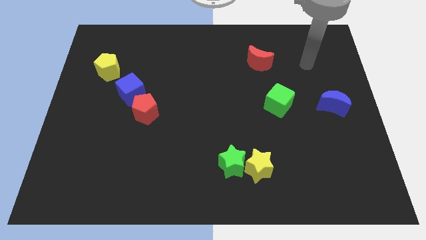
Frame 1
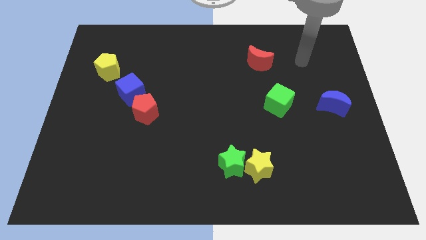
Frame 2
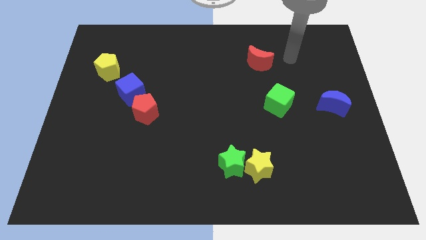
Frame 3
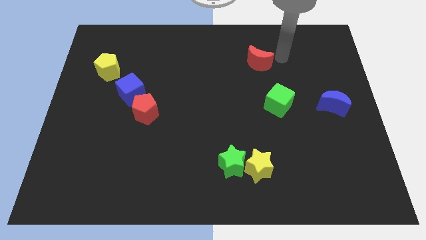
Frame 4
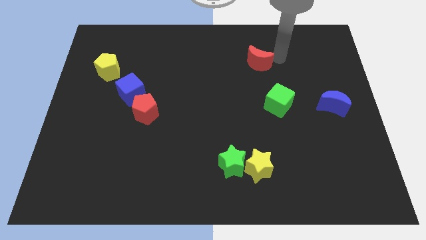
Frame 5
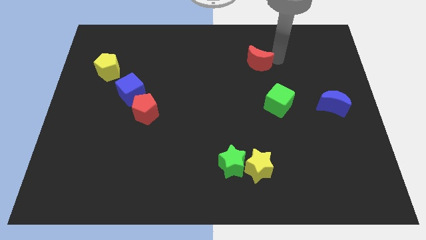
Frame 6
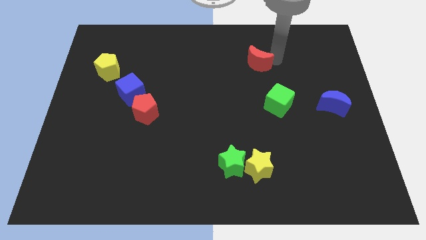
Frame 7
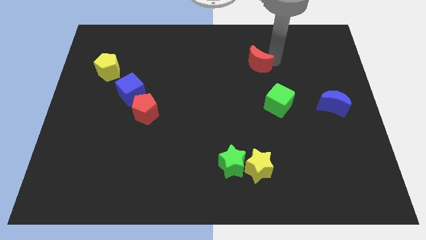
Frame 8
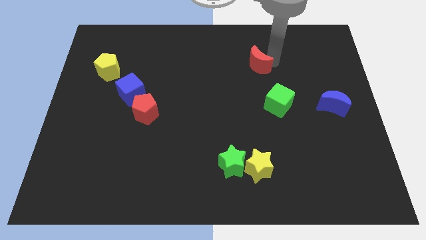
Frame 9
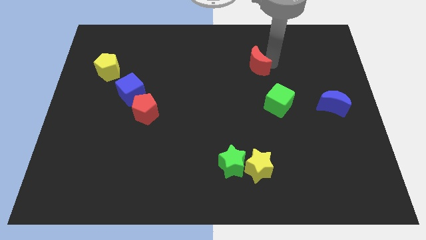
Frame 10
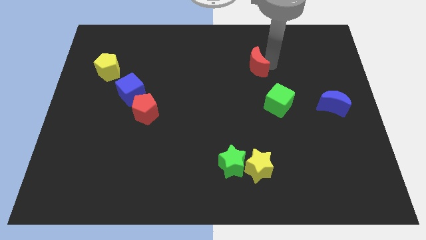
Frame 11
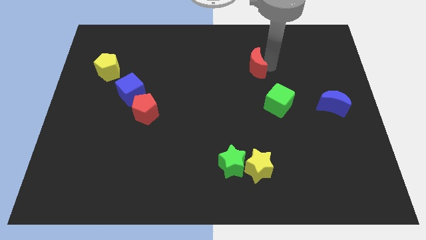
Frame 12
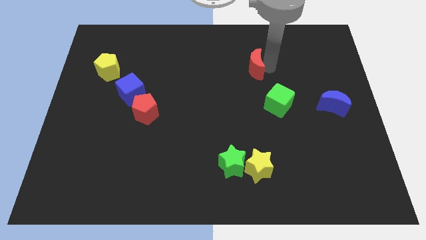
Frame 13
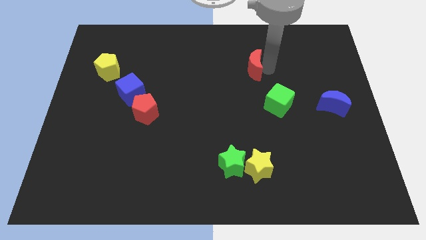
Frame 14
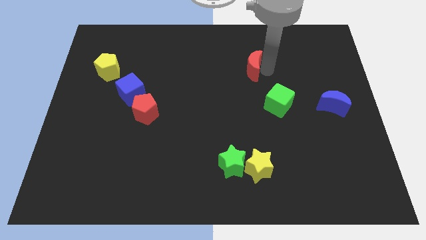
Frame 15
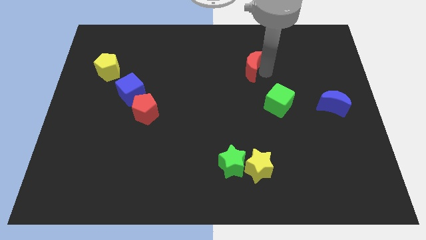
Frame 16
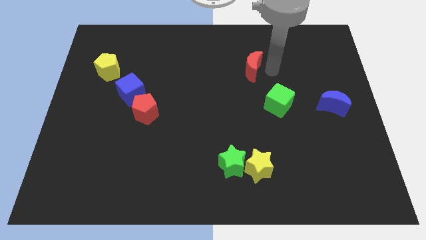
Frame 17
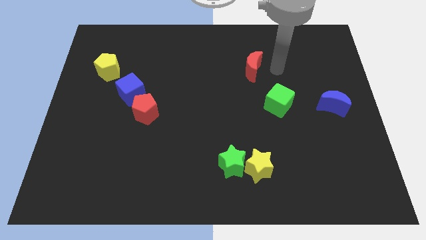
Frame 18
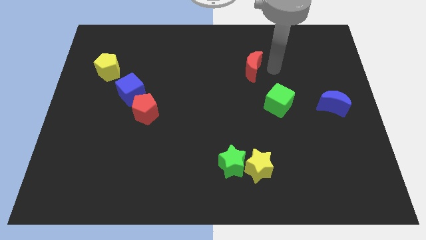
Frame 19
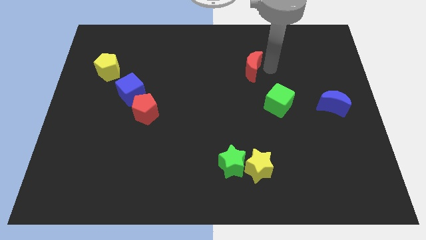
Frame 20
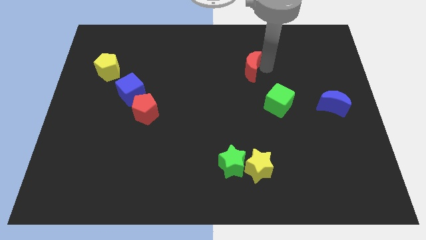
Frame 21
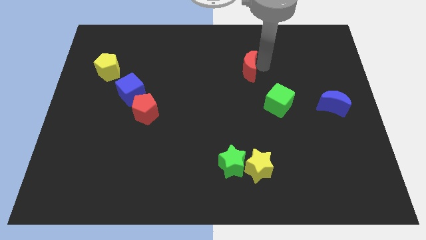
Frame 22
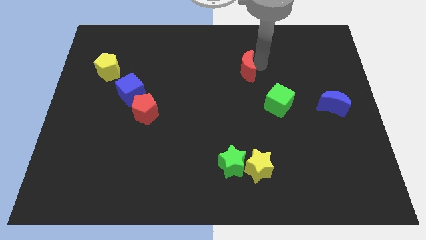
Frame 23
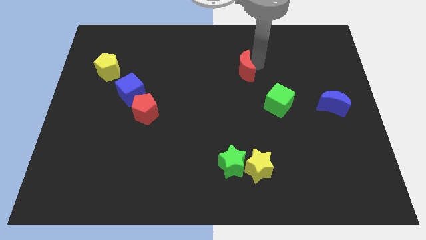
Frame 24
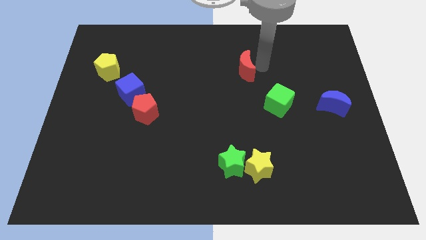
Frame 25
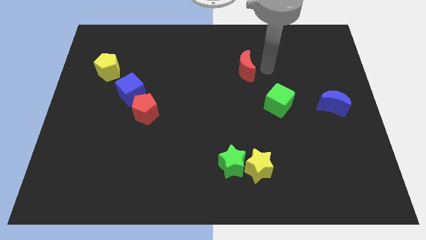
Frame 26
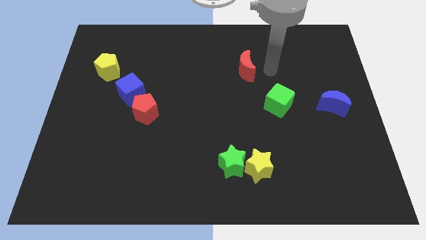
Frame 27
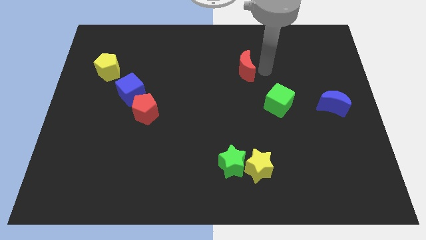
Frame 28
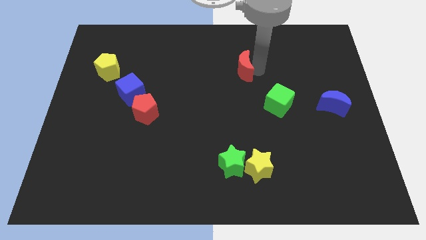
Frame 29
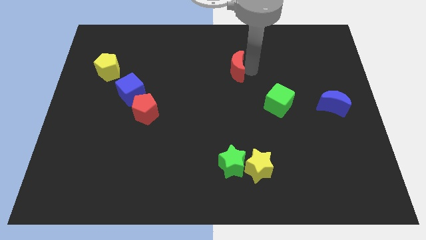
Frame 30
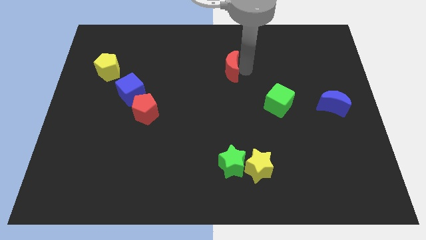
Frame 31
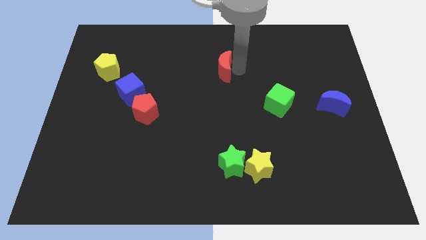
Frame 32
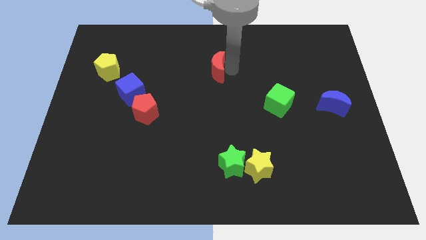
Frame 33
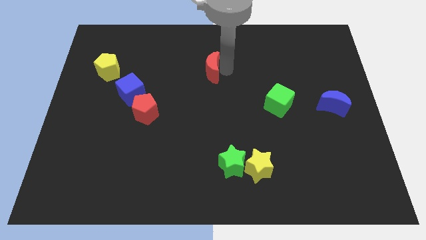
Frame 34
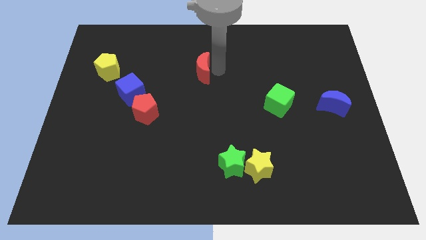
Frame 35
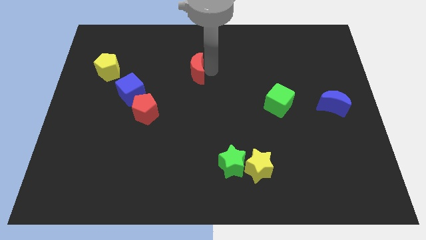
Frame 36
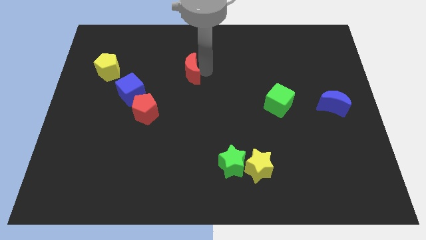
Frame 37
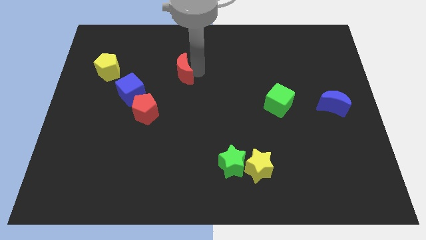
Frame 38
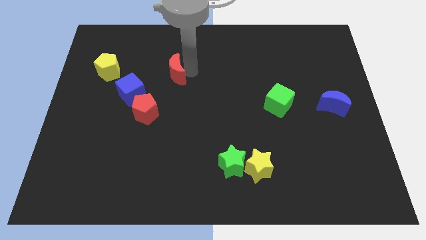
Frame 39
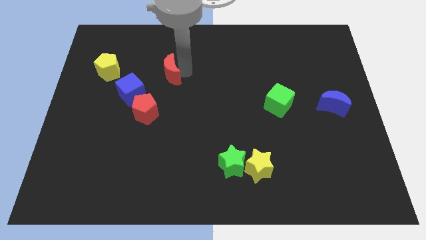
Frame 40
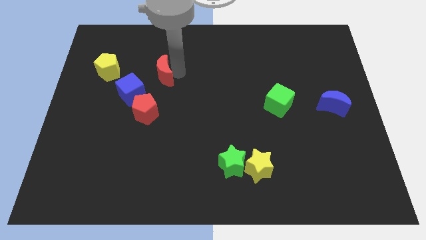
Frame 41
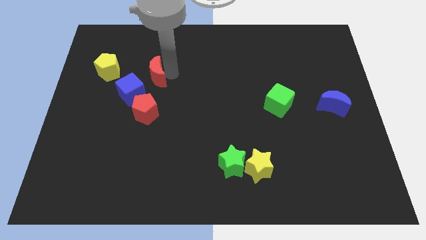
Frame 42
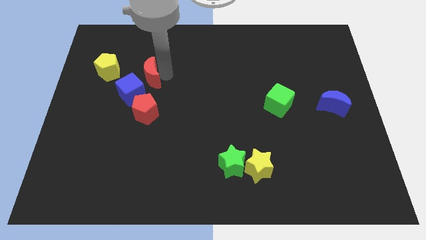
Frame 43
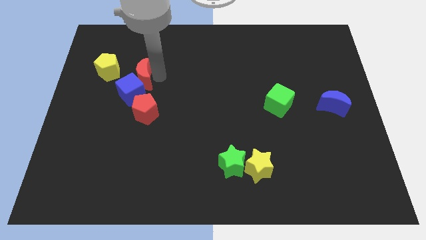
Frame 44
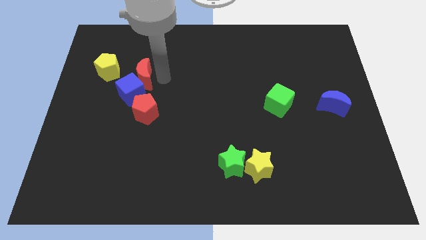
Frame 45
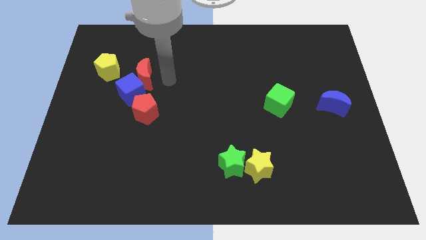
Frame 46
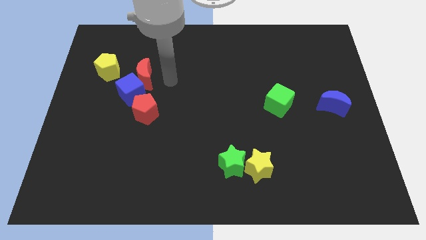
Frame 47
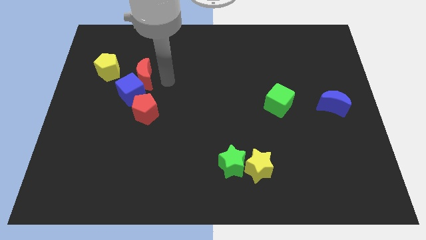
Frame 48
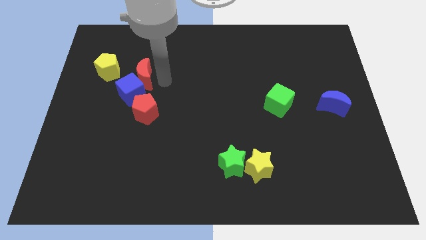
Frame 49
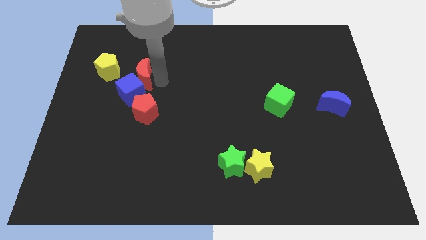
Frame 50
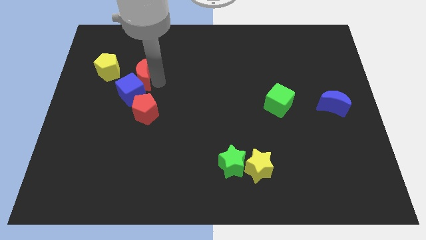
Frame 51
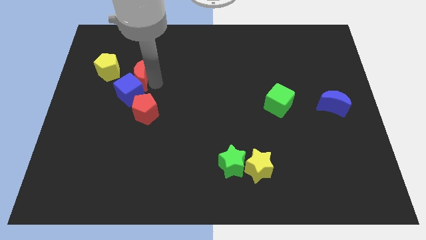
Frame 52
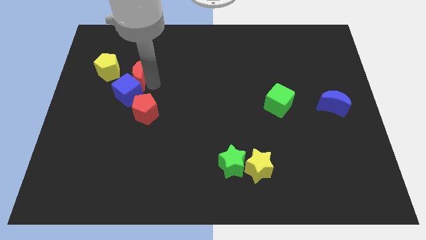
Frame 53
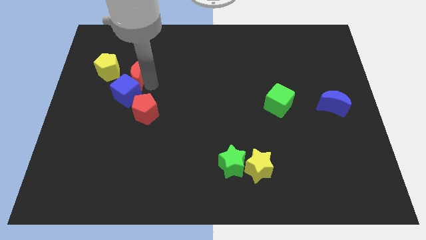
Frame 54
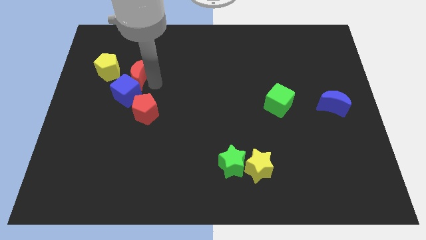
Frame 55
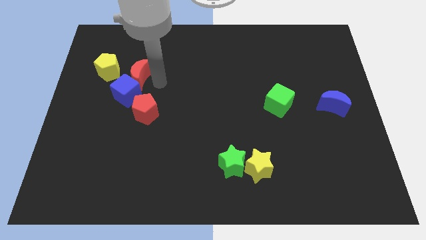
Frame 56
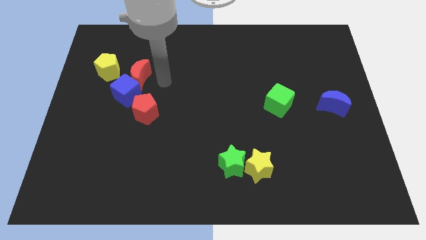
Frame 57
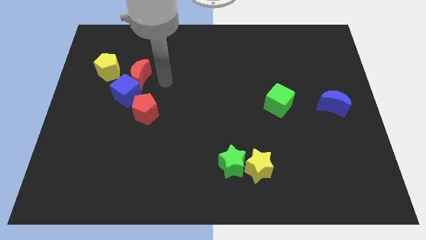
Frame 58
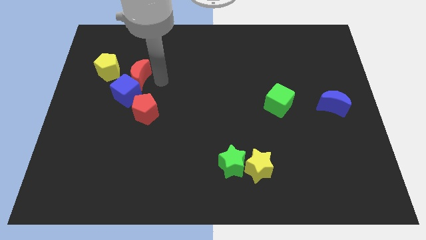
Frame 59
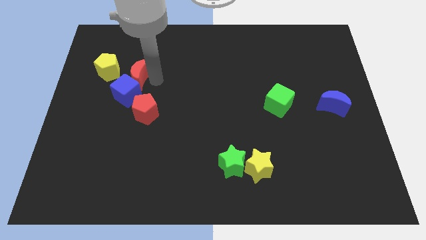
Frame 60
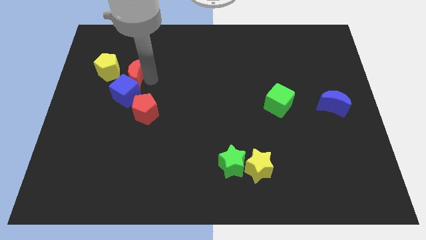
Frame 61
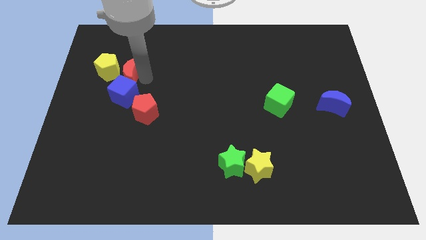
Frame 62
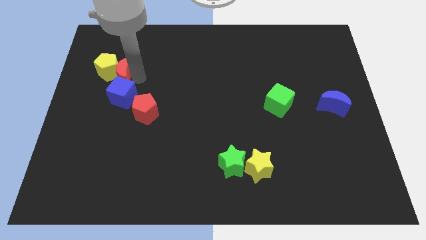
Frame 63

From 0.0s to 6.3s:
put the red moon towards the yellow pentagon

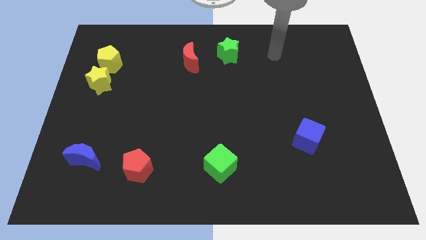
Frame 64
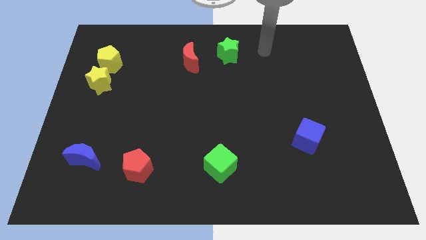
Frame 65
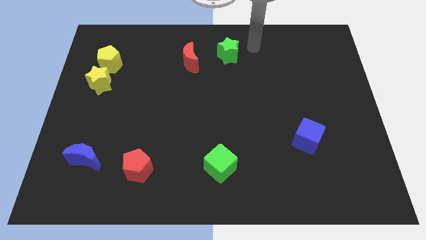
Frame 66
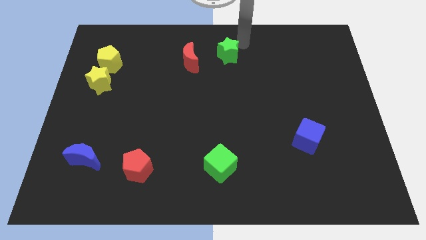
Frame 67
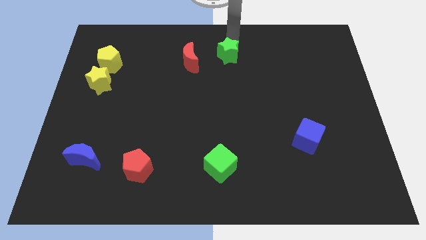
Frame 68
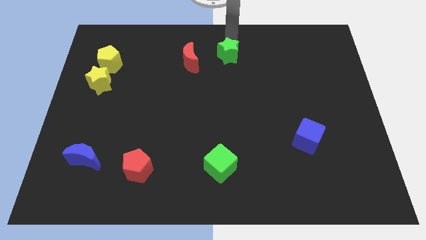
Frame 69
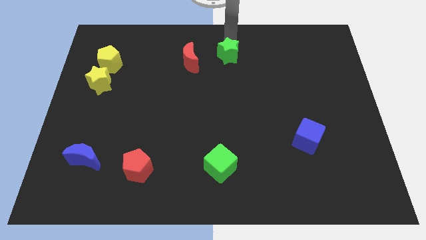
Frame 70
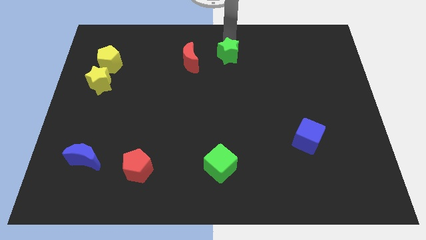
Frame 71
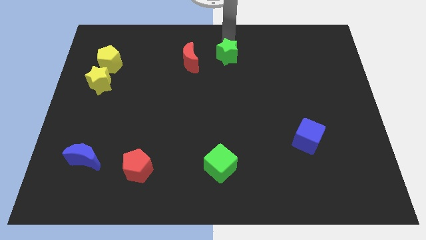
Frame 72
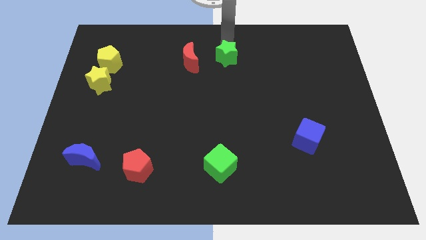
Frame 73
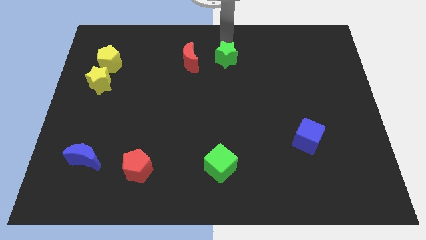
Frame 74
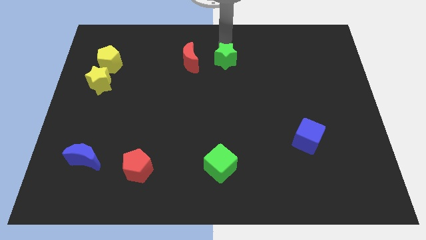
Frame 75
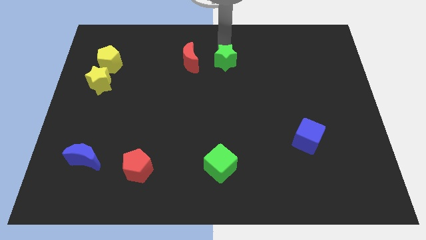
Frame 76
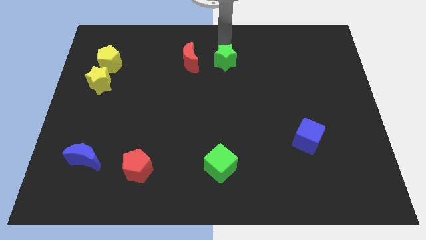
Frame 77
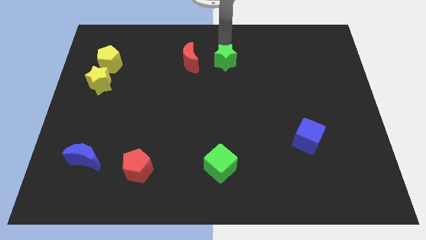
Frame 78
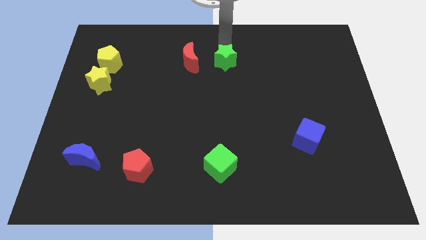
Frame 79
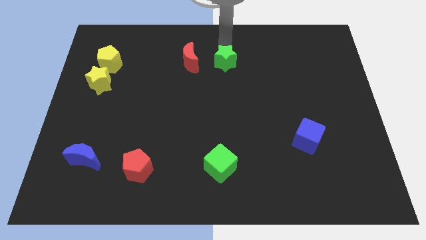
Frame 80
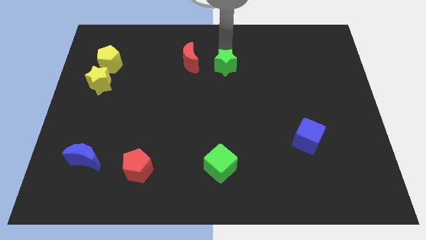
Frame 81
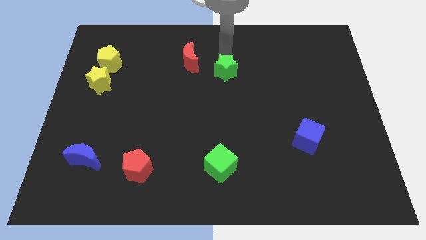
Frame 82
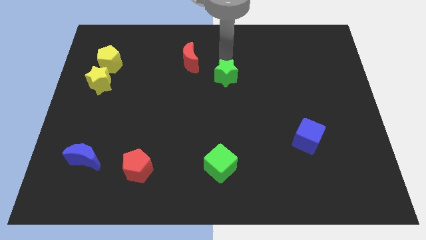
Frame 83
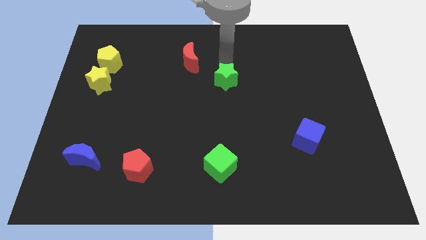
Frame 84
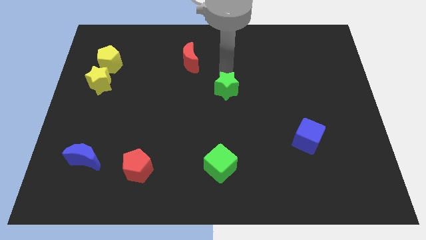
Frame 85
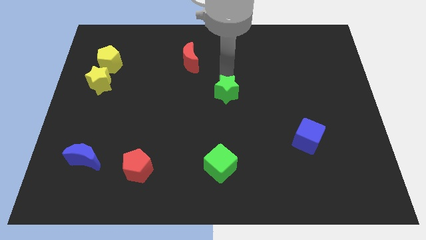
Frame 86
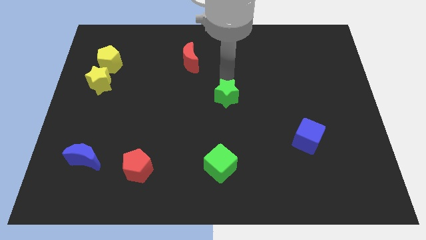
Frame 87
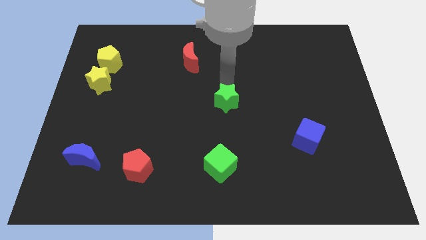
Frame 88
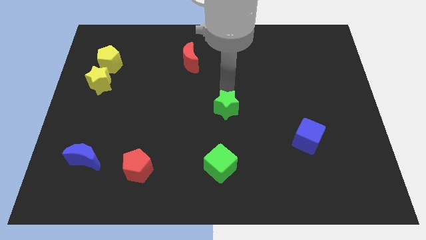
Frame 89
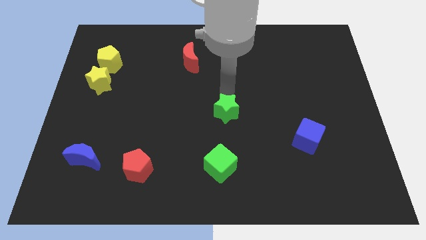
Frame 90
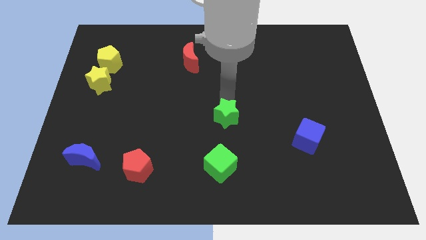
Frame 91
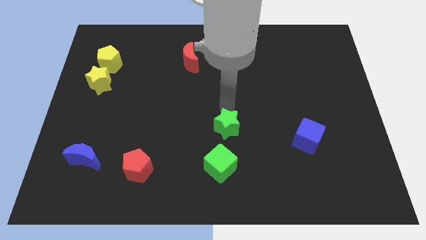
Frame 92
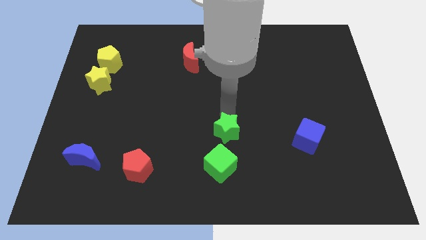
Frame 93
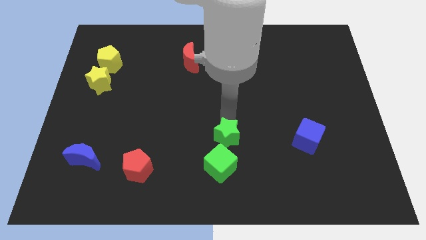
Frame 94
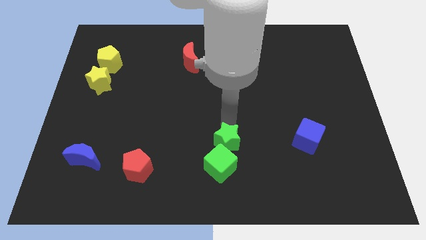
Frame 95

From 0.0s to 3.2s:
put the green star to the green cube
